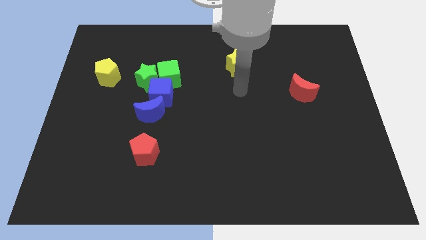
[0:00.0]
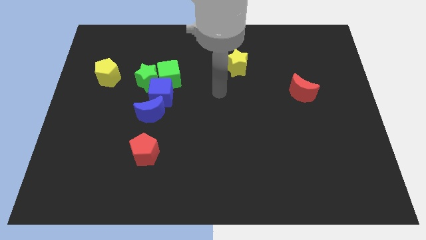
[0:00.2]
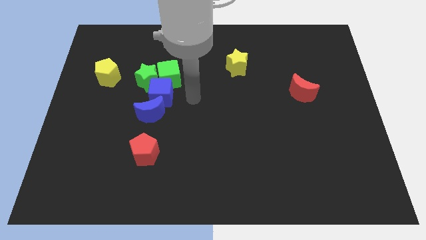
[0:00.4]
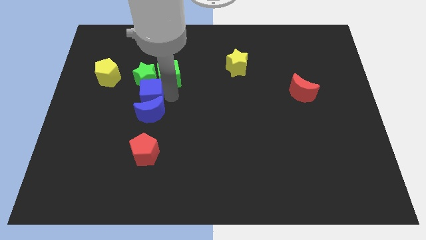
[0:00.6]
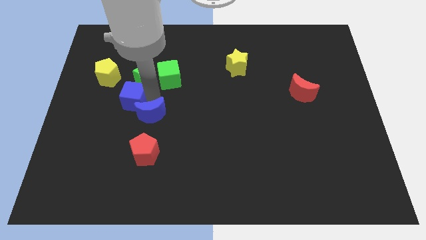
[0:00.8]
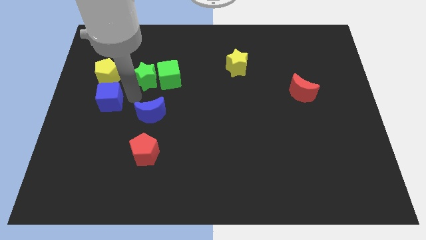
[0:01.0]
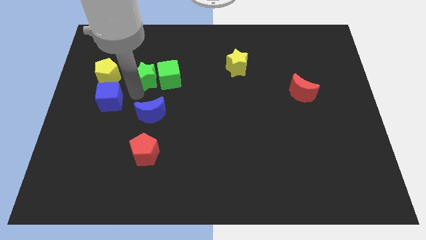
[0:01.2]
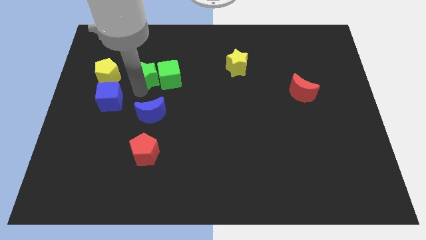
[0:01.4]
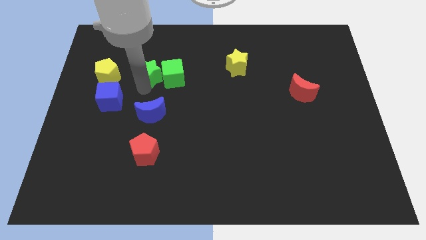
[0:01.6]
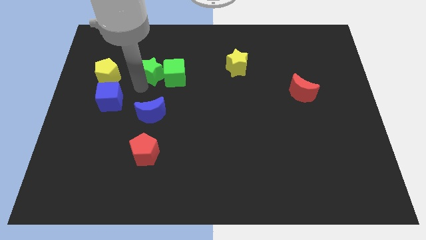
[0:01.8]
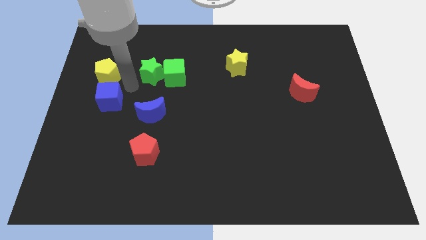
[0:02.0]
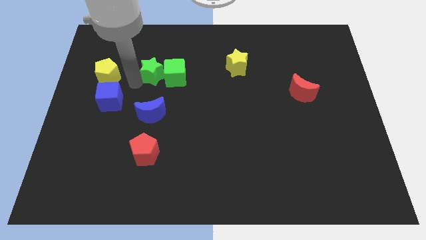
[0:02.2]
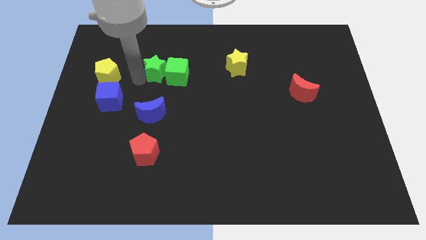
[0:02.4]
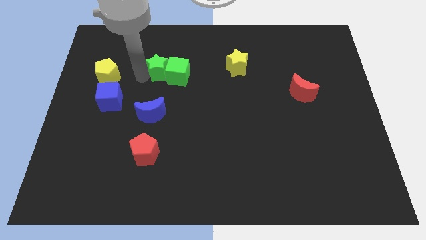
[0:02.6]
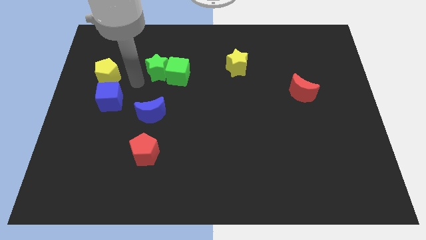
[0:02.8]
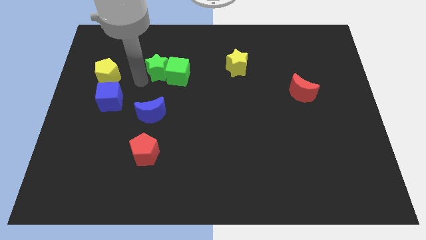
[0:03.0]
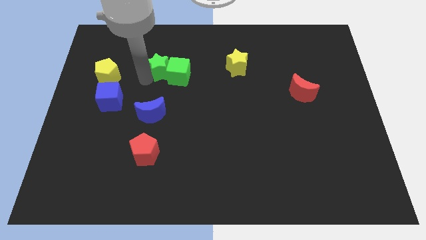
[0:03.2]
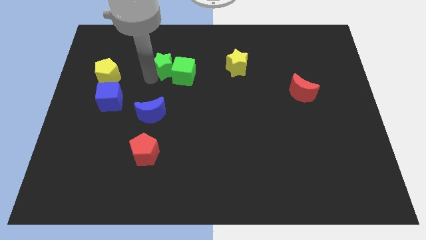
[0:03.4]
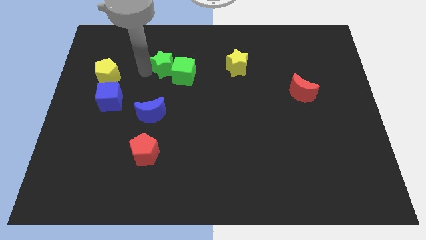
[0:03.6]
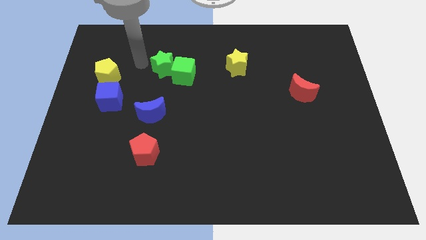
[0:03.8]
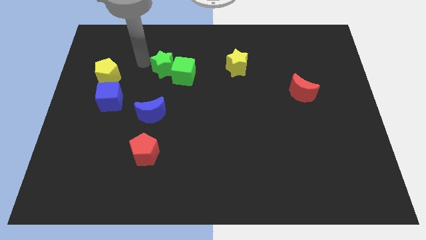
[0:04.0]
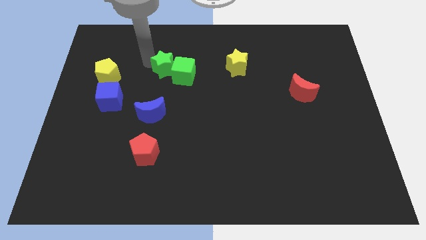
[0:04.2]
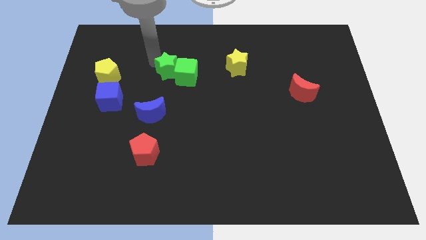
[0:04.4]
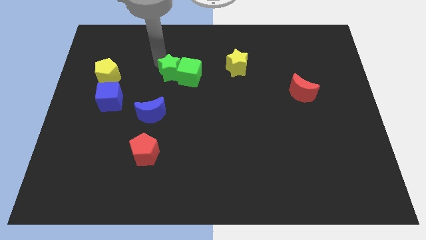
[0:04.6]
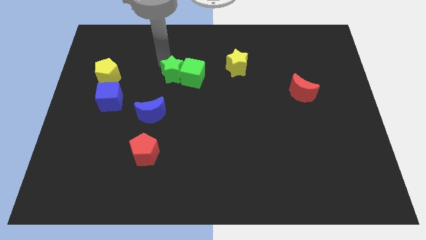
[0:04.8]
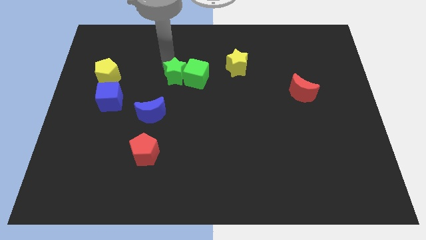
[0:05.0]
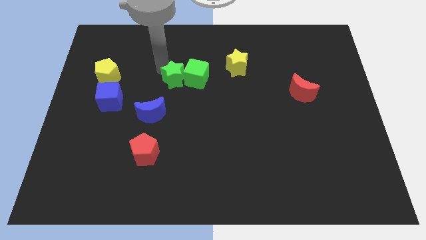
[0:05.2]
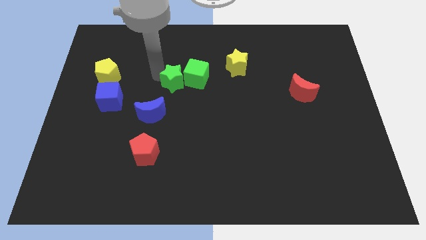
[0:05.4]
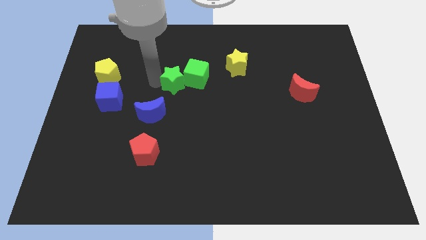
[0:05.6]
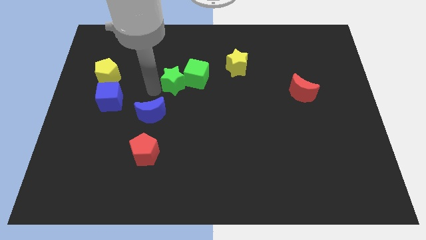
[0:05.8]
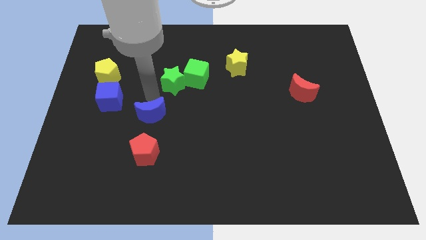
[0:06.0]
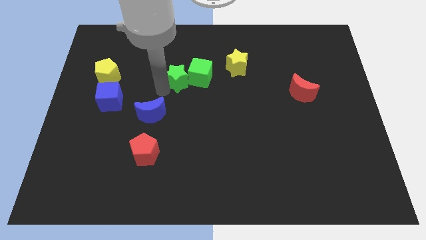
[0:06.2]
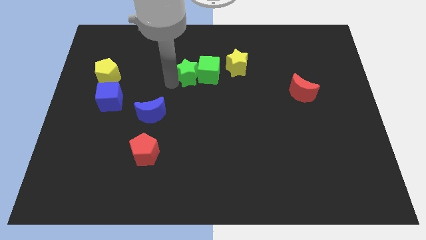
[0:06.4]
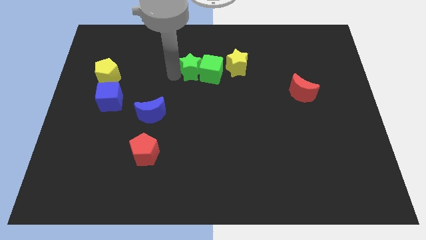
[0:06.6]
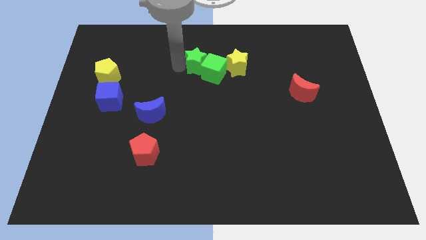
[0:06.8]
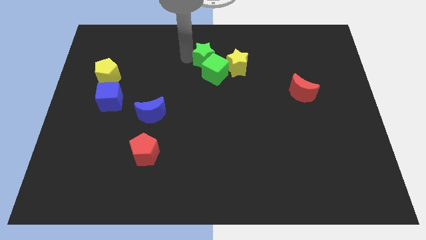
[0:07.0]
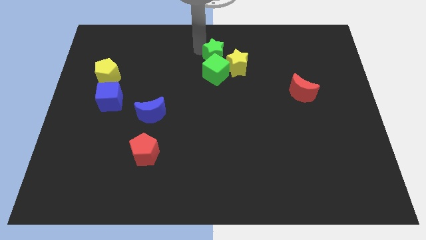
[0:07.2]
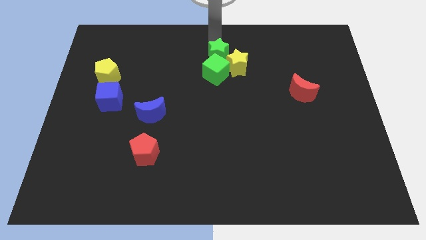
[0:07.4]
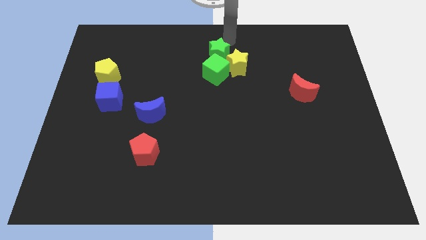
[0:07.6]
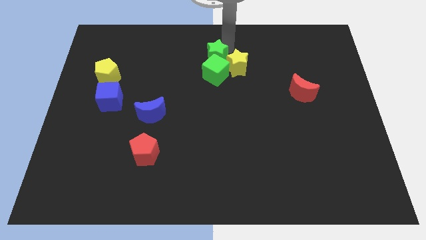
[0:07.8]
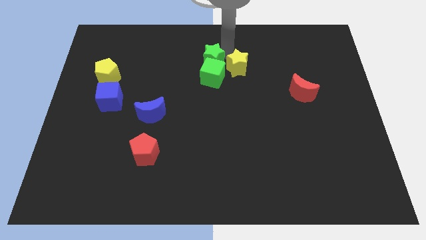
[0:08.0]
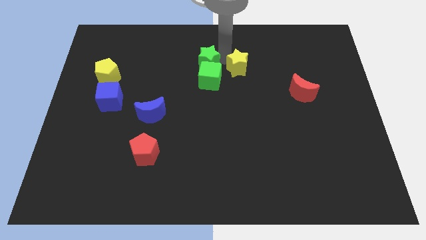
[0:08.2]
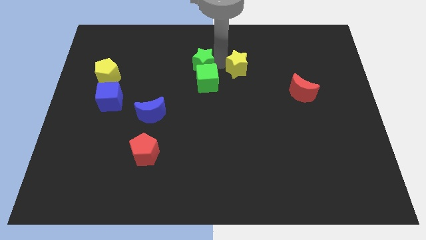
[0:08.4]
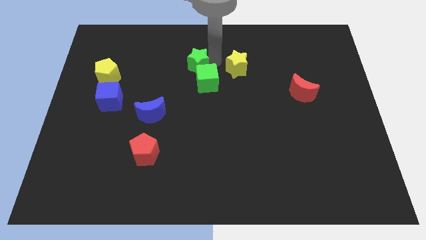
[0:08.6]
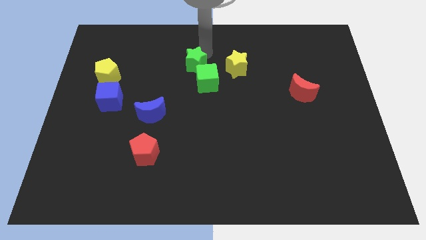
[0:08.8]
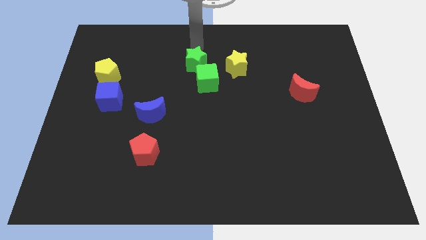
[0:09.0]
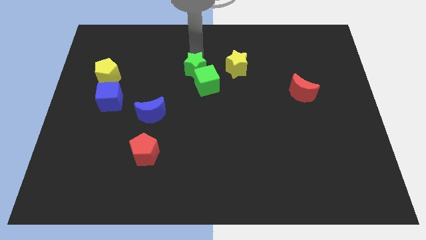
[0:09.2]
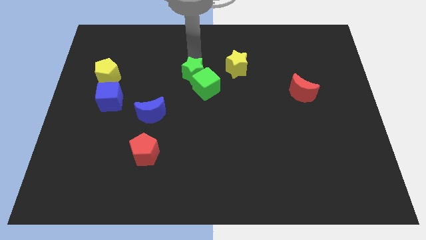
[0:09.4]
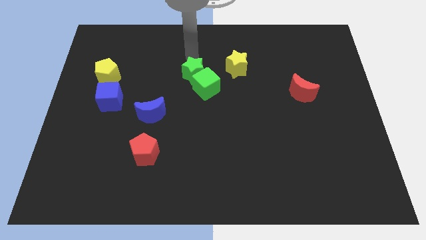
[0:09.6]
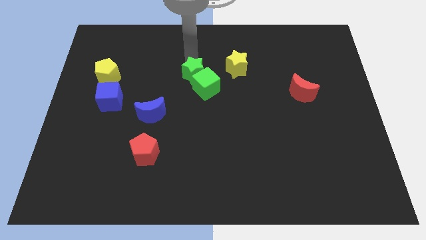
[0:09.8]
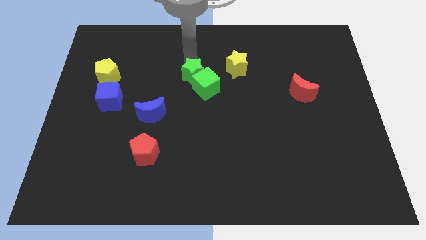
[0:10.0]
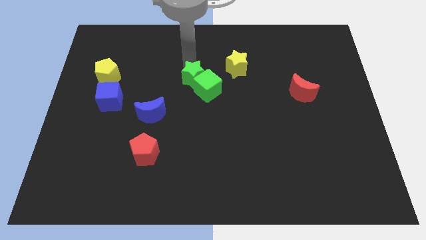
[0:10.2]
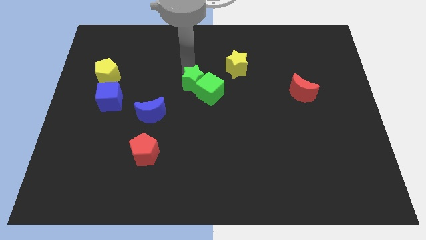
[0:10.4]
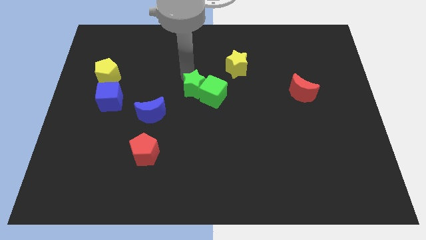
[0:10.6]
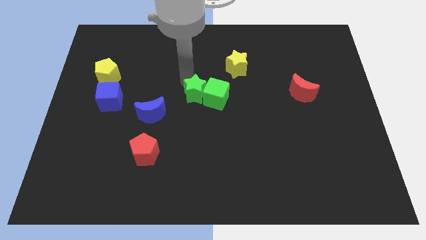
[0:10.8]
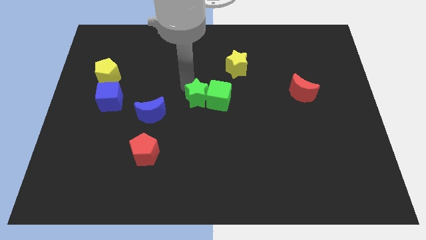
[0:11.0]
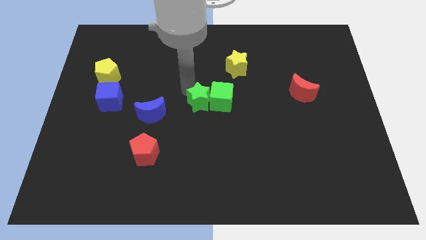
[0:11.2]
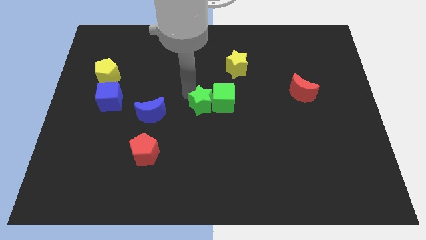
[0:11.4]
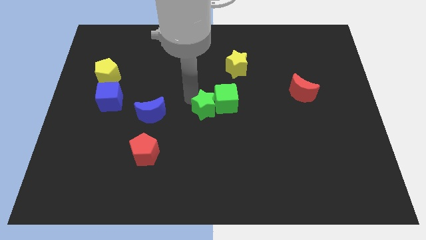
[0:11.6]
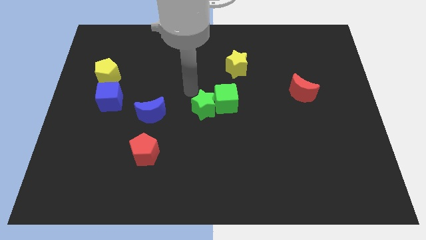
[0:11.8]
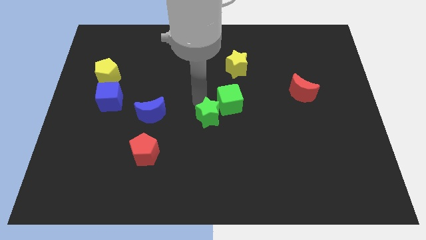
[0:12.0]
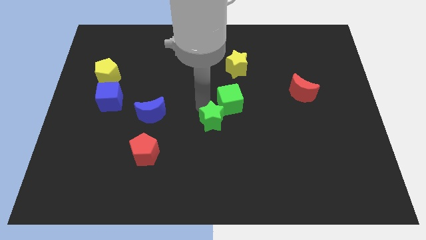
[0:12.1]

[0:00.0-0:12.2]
push the green star downwards and then right

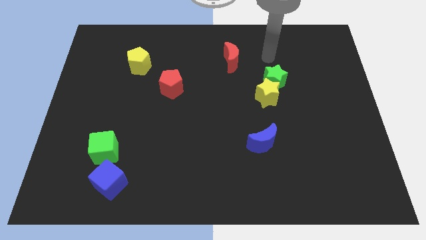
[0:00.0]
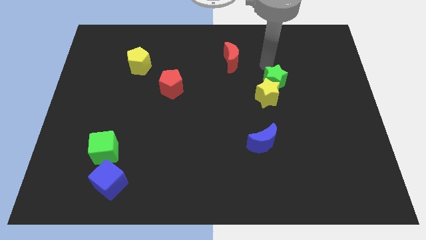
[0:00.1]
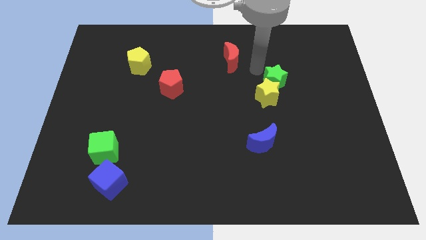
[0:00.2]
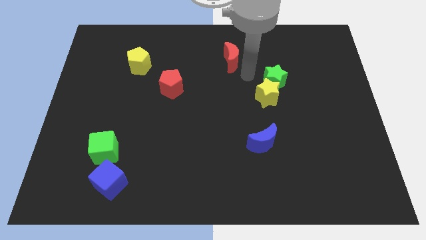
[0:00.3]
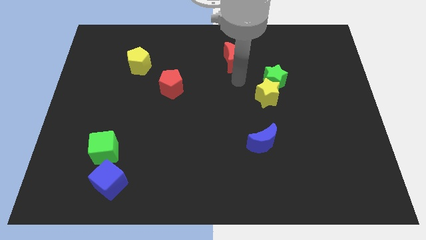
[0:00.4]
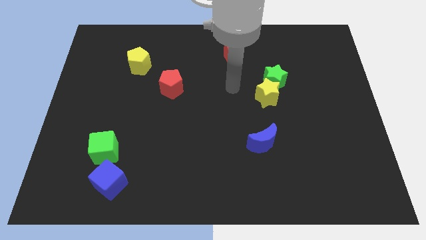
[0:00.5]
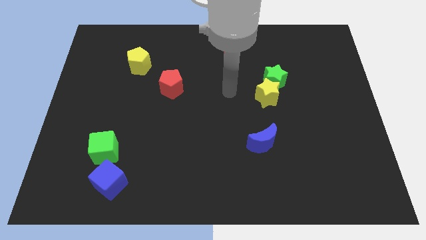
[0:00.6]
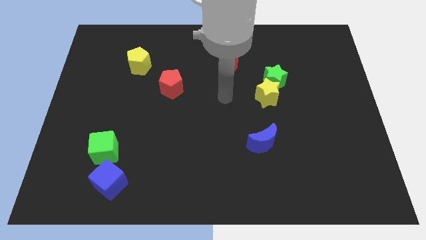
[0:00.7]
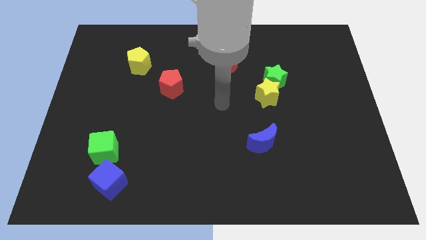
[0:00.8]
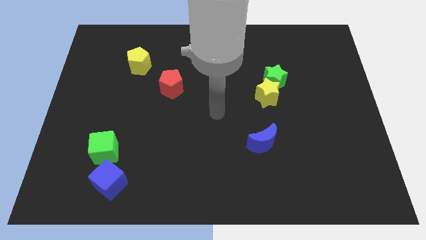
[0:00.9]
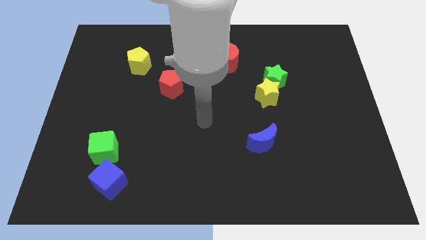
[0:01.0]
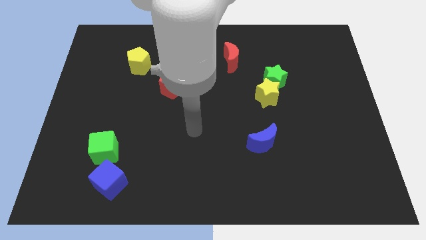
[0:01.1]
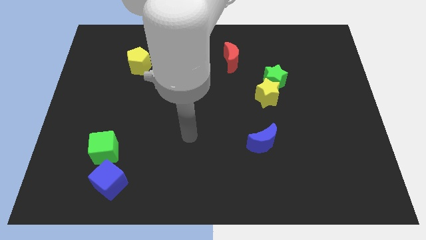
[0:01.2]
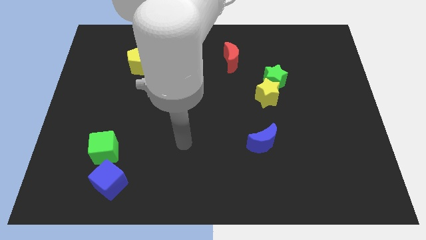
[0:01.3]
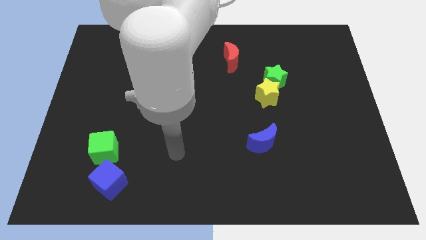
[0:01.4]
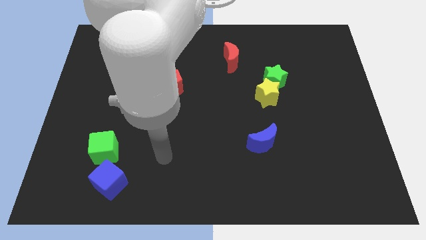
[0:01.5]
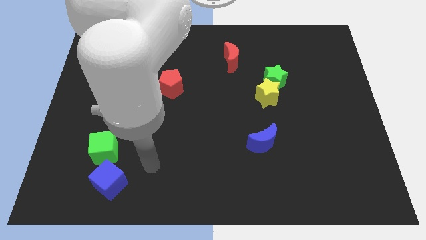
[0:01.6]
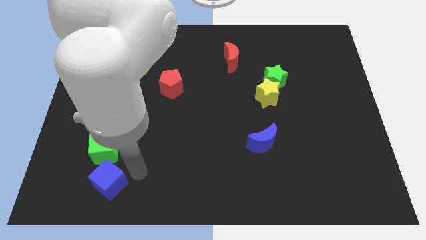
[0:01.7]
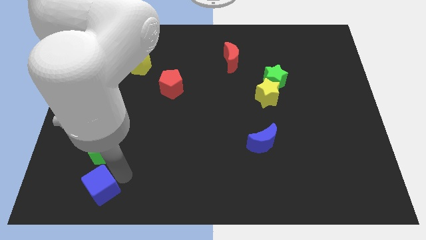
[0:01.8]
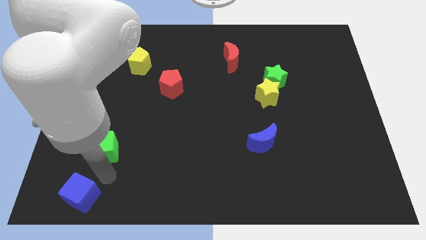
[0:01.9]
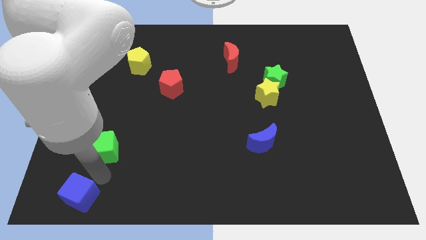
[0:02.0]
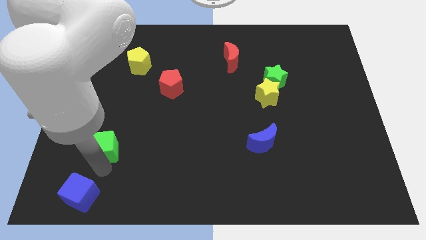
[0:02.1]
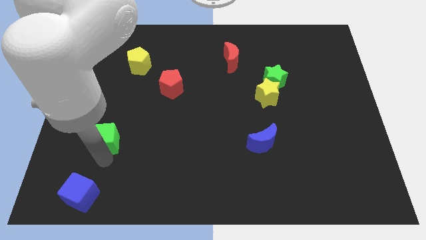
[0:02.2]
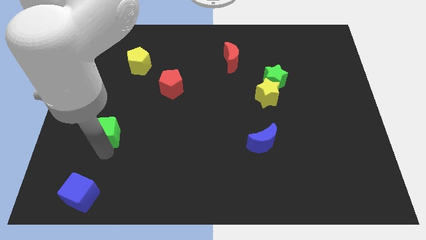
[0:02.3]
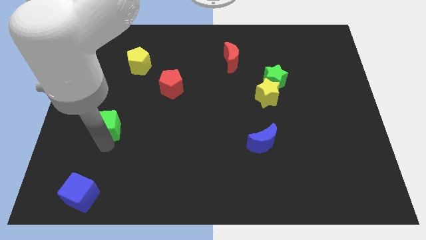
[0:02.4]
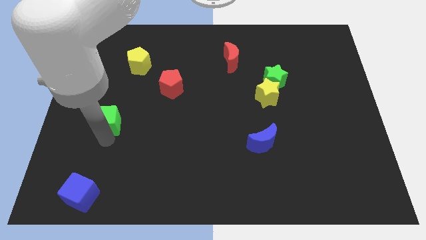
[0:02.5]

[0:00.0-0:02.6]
slide the green cube upwards somewhat
